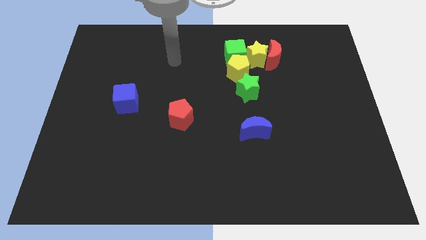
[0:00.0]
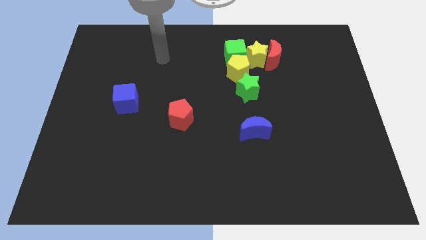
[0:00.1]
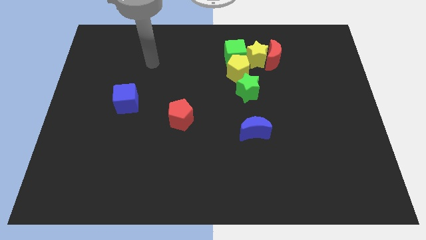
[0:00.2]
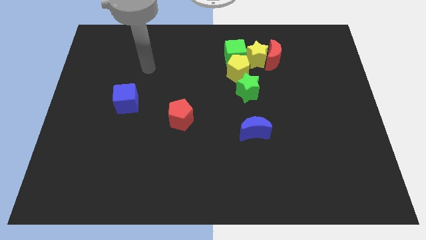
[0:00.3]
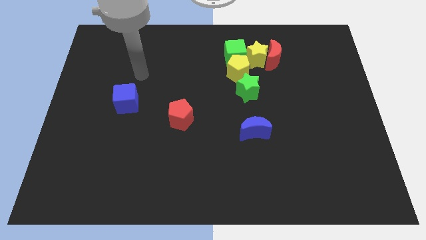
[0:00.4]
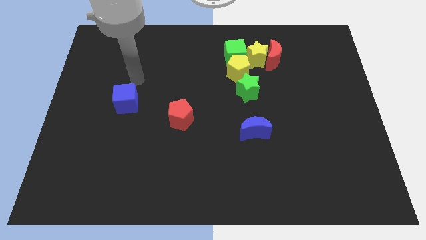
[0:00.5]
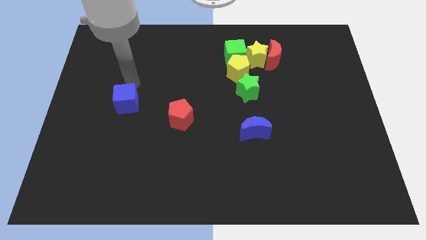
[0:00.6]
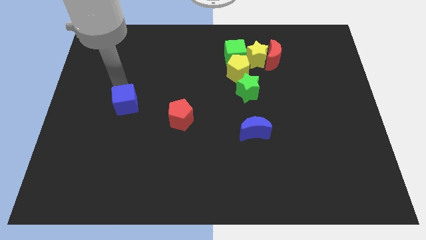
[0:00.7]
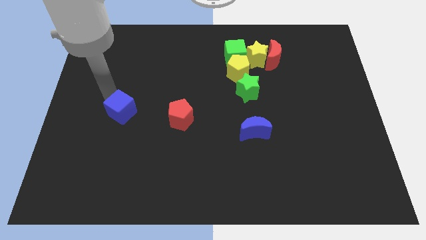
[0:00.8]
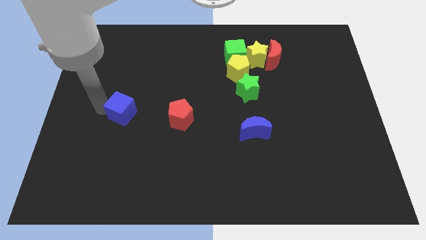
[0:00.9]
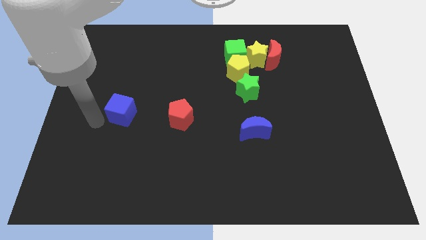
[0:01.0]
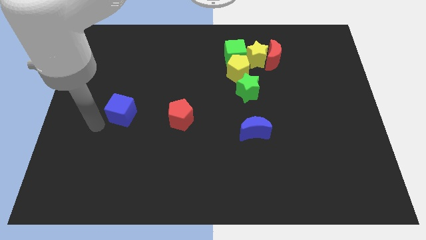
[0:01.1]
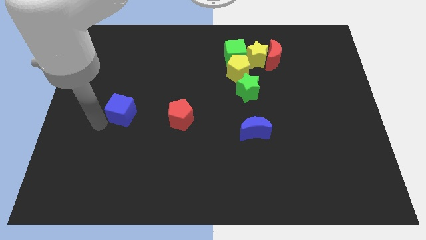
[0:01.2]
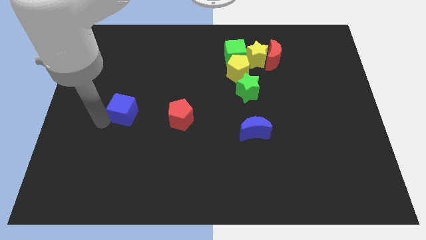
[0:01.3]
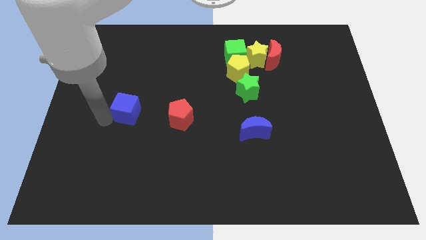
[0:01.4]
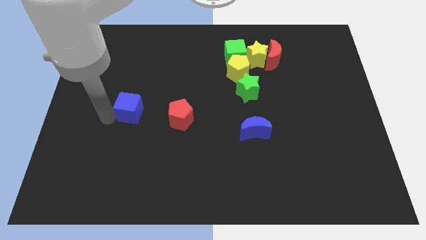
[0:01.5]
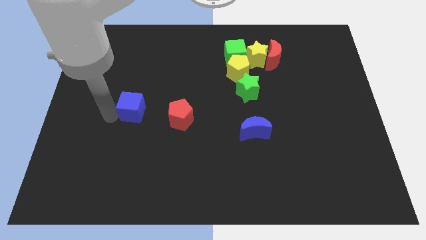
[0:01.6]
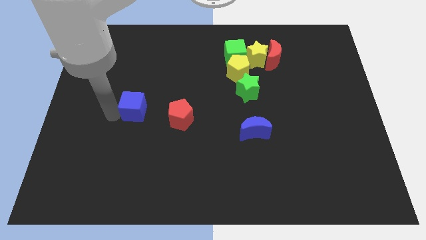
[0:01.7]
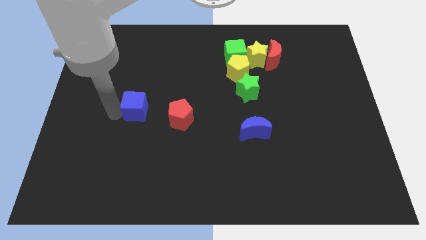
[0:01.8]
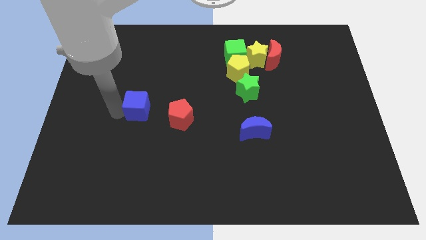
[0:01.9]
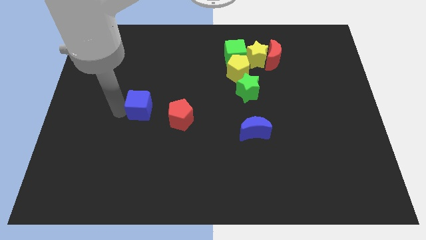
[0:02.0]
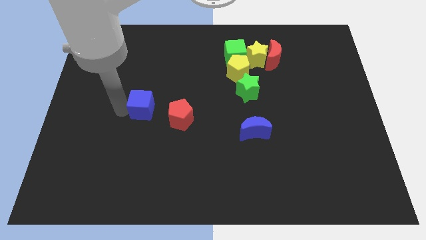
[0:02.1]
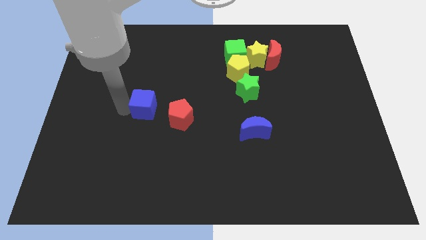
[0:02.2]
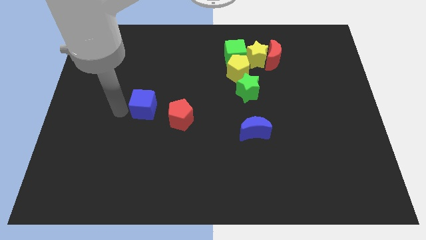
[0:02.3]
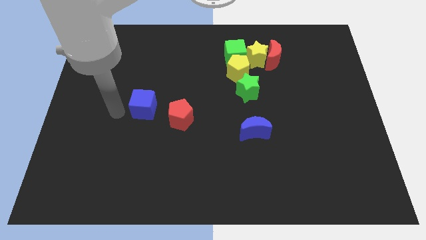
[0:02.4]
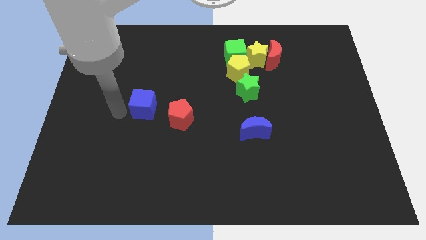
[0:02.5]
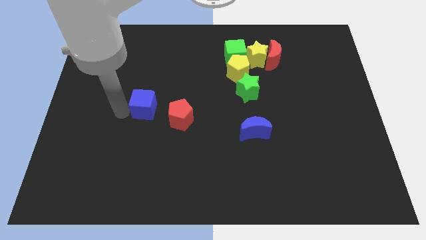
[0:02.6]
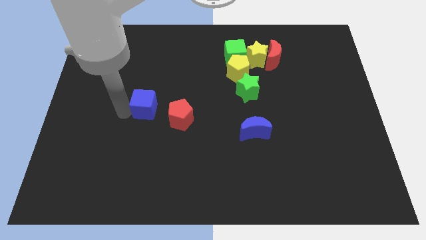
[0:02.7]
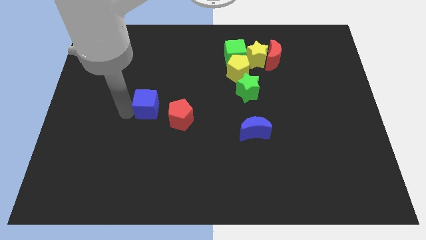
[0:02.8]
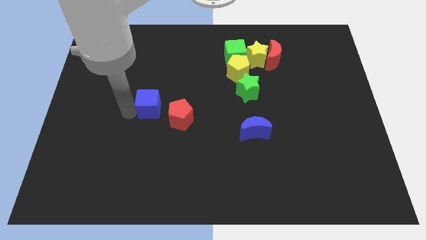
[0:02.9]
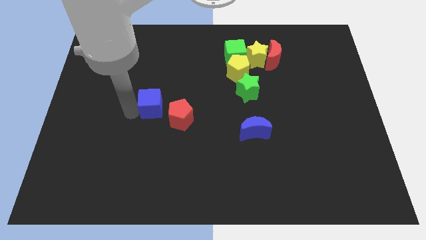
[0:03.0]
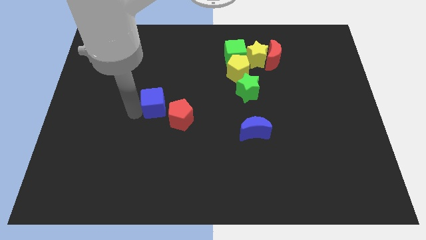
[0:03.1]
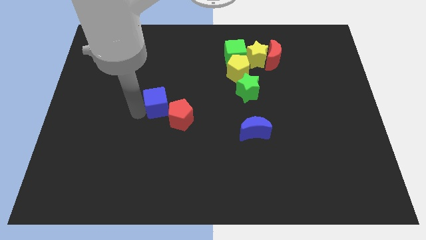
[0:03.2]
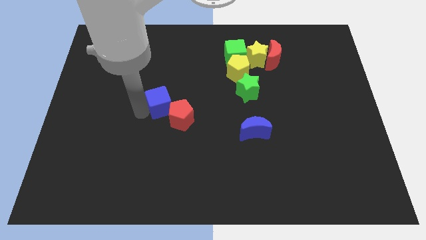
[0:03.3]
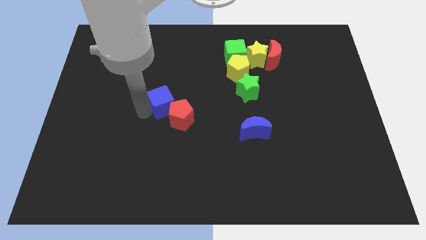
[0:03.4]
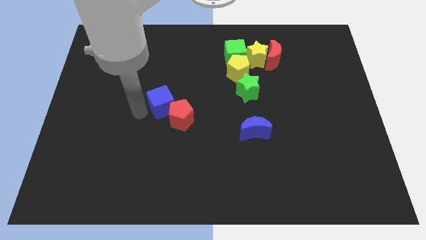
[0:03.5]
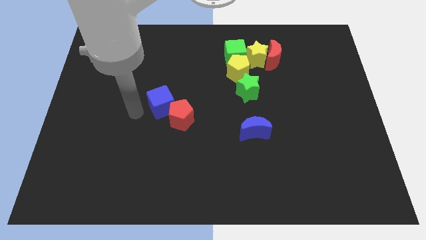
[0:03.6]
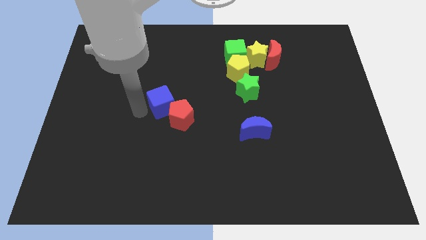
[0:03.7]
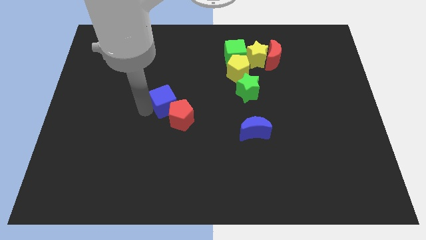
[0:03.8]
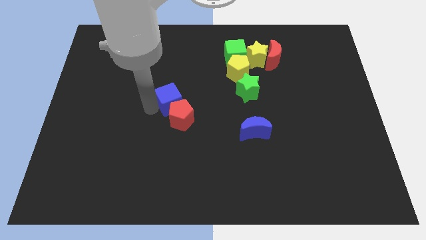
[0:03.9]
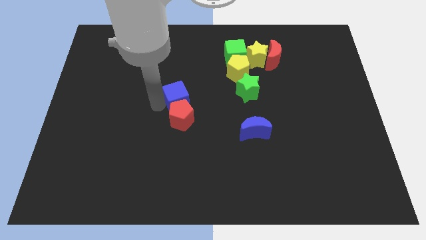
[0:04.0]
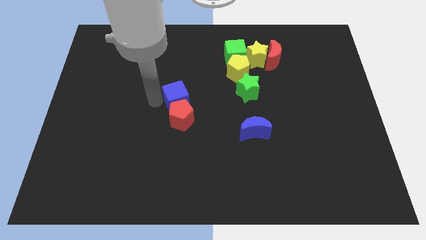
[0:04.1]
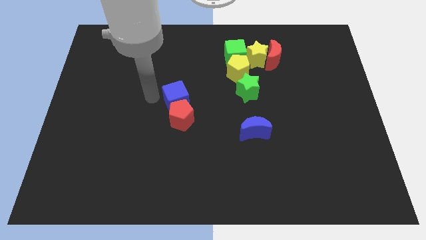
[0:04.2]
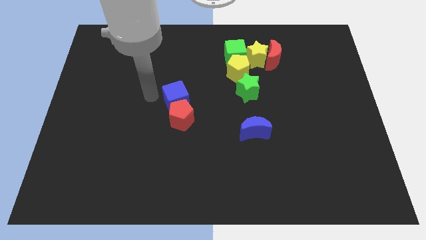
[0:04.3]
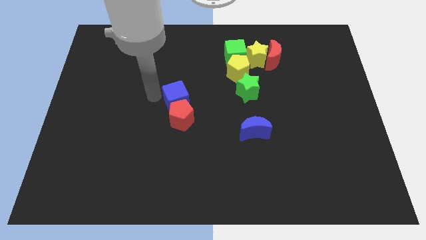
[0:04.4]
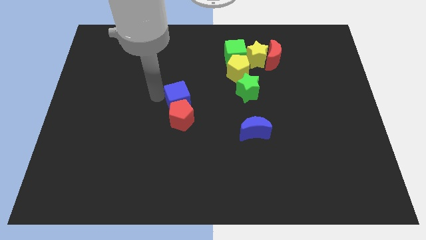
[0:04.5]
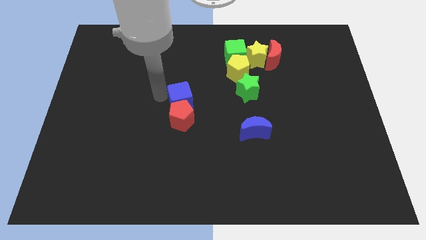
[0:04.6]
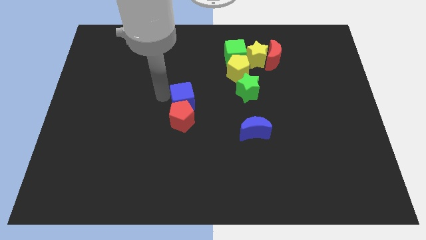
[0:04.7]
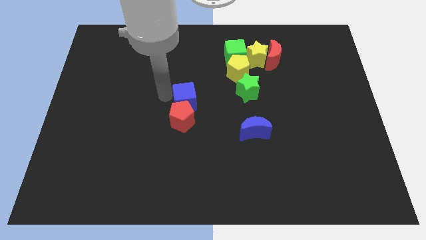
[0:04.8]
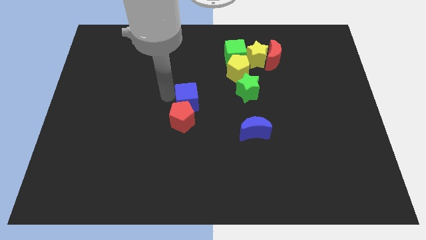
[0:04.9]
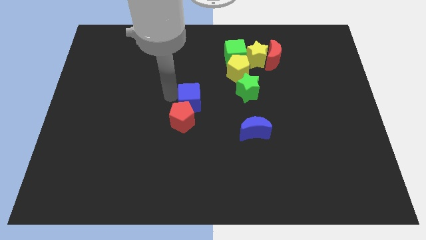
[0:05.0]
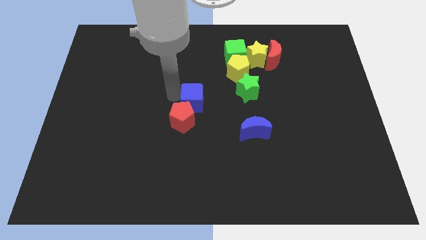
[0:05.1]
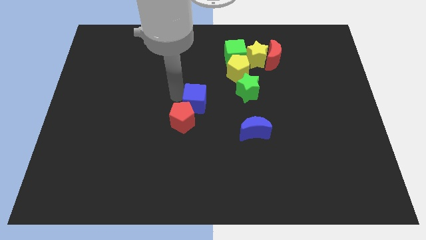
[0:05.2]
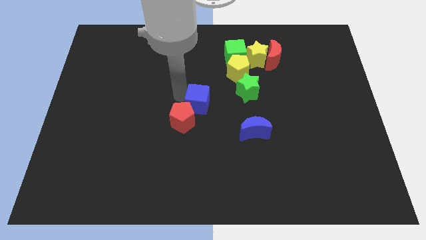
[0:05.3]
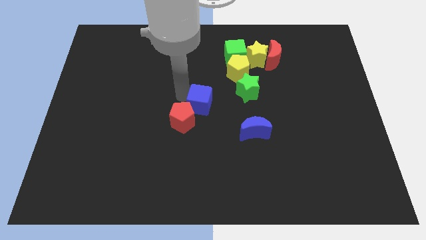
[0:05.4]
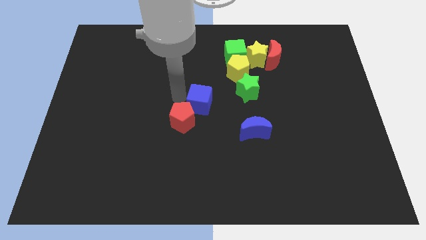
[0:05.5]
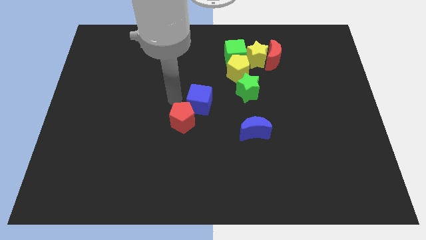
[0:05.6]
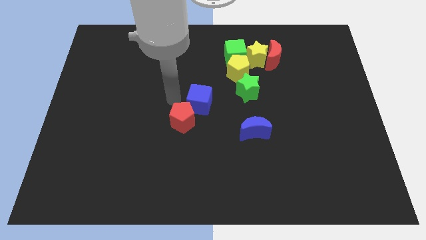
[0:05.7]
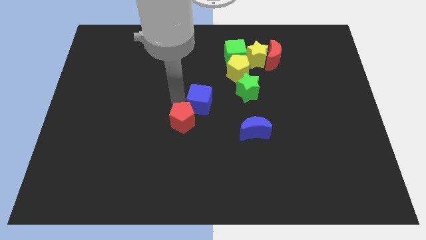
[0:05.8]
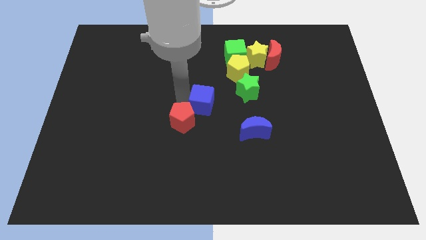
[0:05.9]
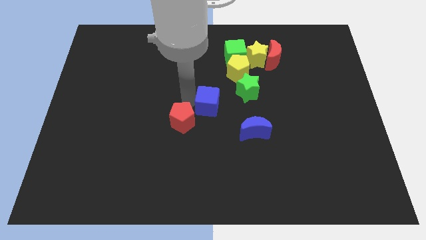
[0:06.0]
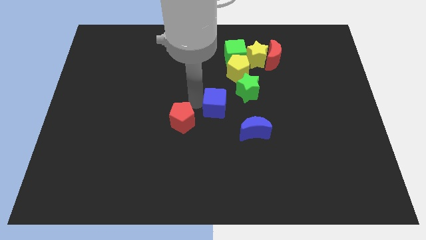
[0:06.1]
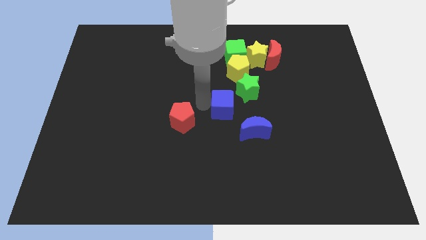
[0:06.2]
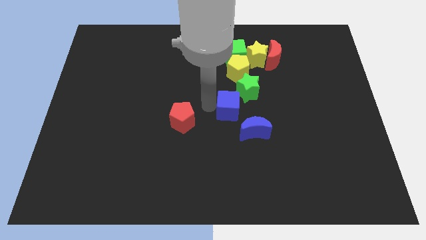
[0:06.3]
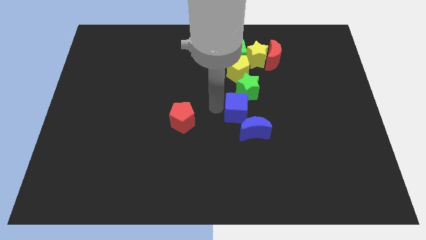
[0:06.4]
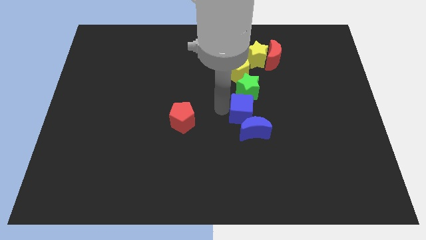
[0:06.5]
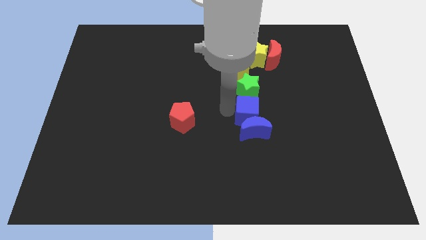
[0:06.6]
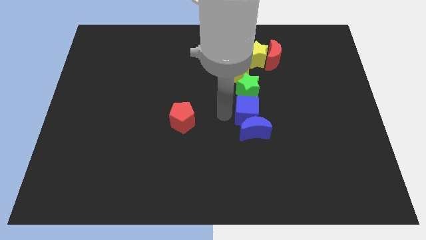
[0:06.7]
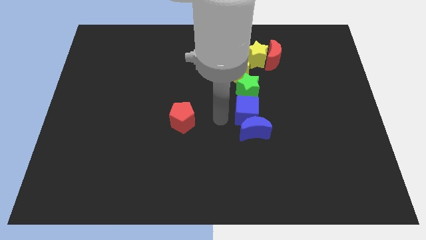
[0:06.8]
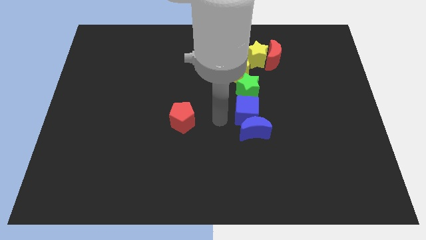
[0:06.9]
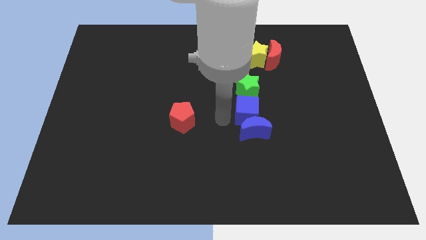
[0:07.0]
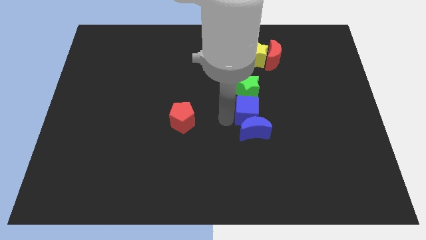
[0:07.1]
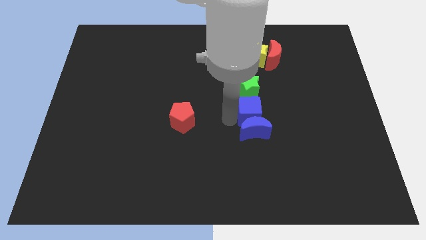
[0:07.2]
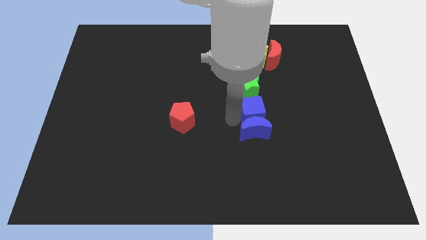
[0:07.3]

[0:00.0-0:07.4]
slide the blue cube to the bottom right of the green star
